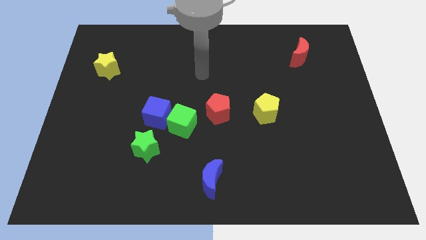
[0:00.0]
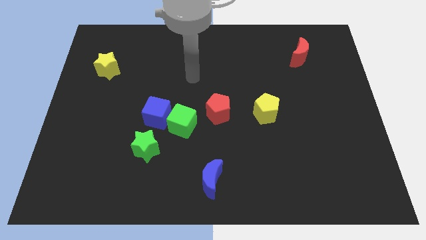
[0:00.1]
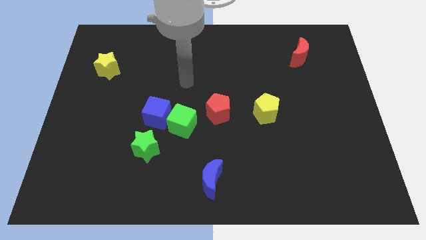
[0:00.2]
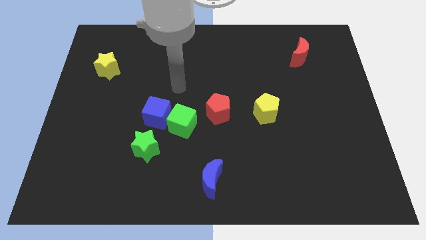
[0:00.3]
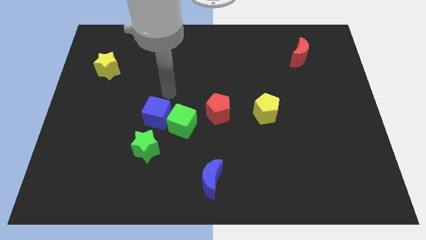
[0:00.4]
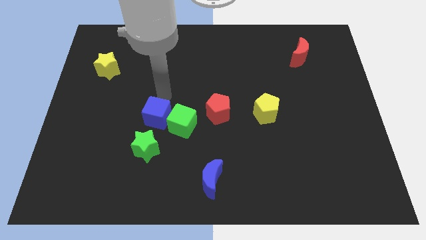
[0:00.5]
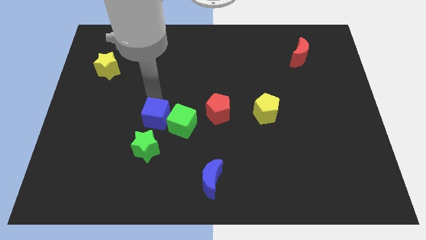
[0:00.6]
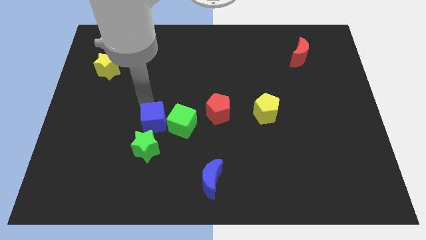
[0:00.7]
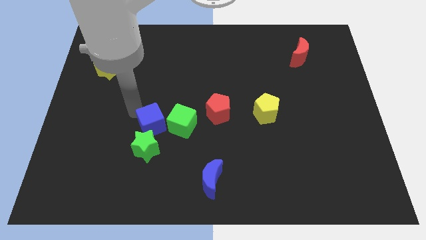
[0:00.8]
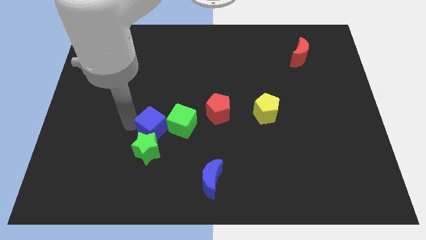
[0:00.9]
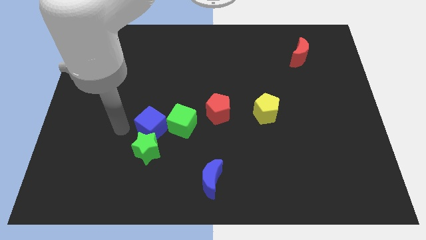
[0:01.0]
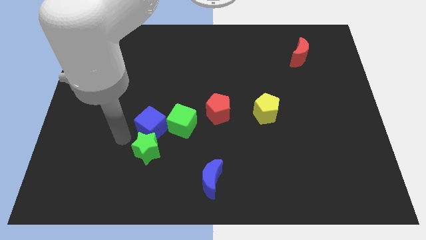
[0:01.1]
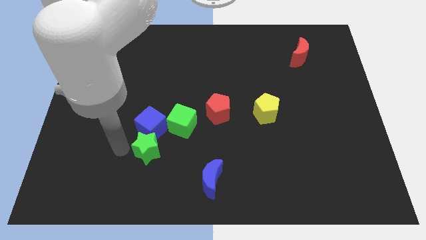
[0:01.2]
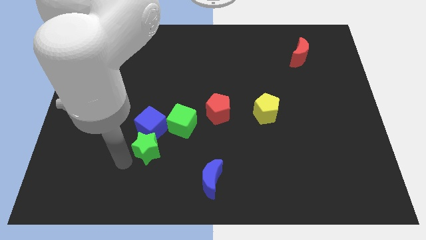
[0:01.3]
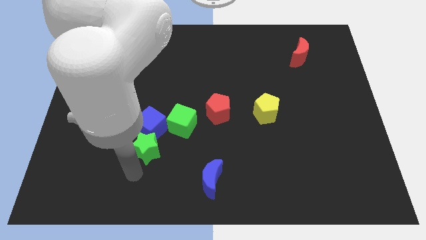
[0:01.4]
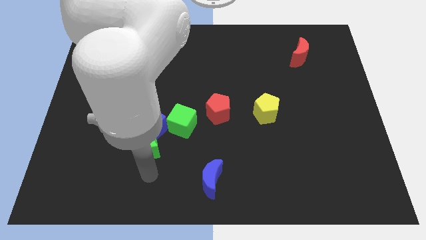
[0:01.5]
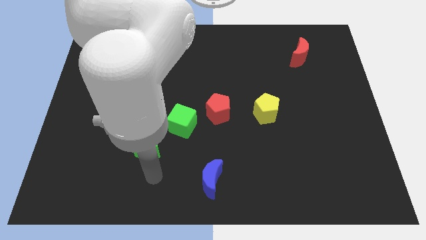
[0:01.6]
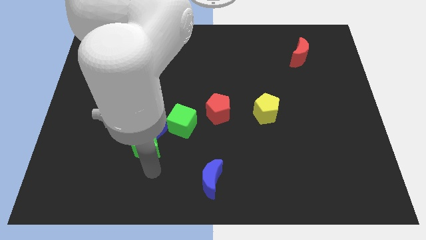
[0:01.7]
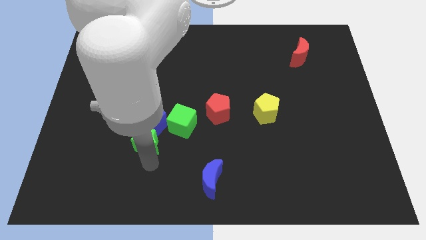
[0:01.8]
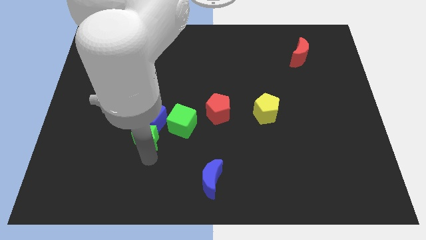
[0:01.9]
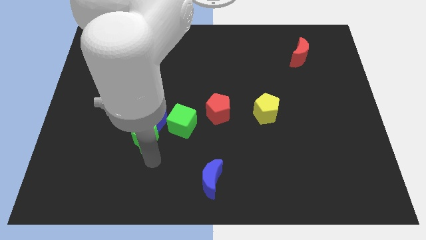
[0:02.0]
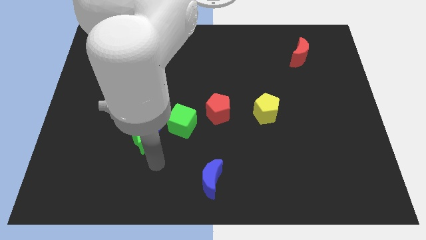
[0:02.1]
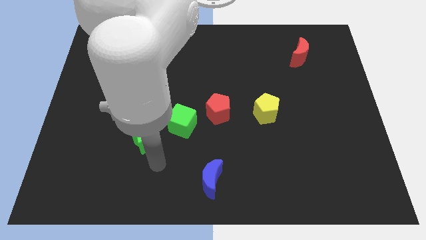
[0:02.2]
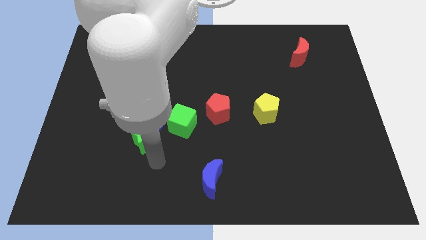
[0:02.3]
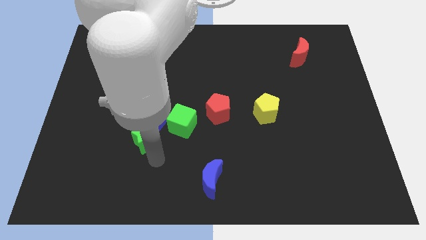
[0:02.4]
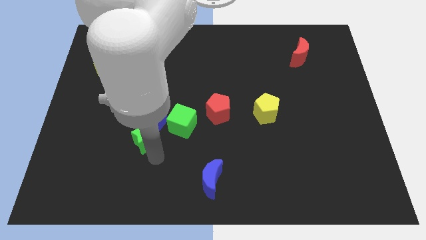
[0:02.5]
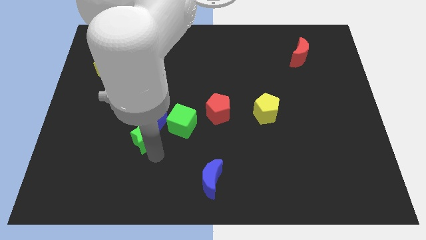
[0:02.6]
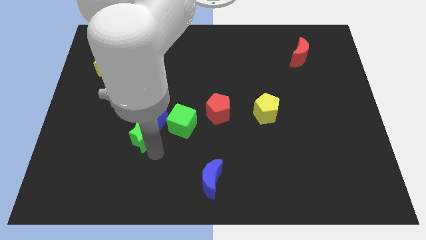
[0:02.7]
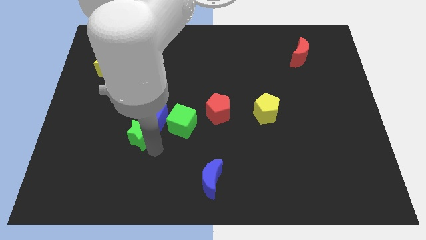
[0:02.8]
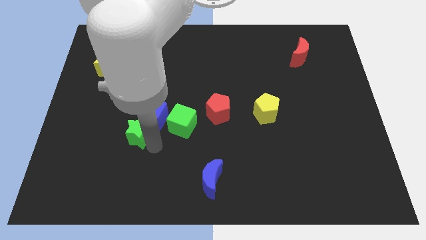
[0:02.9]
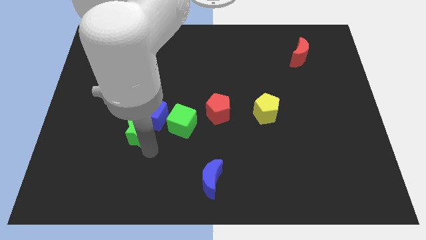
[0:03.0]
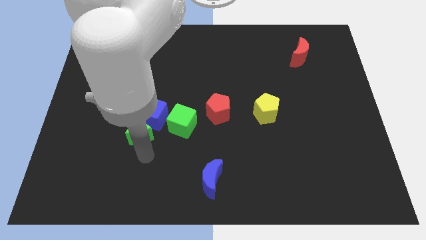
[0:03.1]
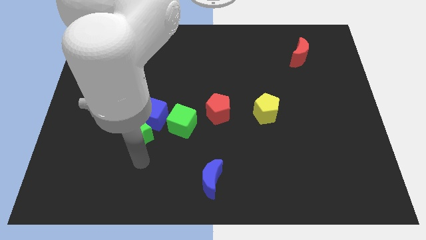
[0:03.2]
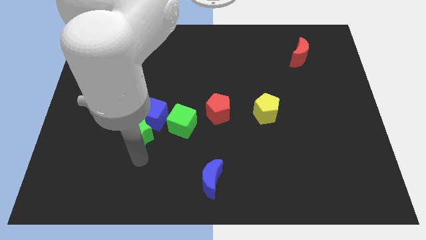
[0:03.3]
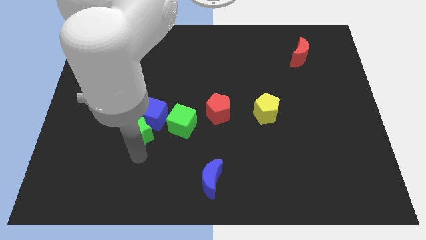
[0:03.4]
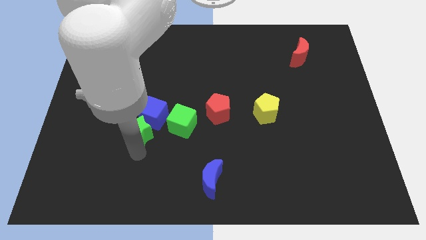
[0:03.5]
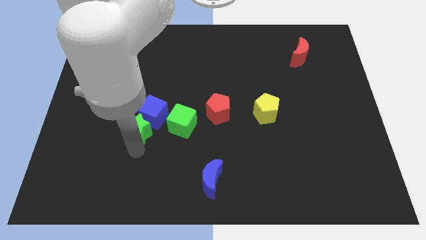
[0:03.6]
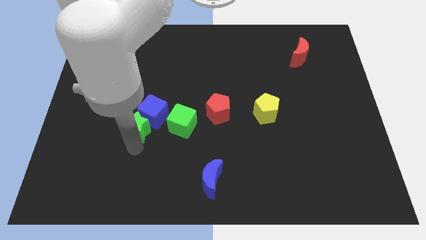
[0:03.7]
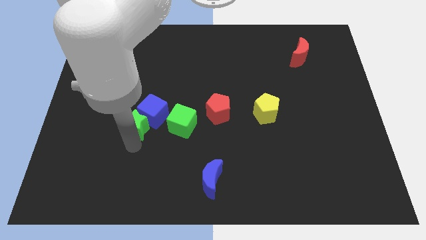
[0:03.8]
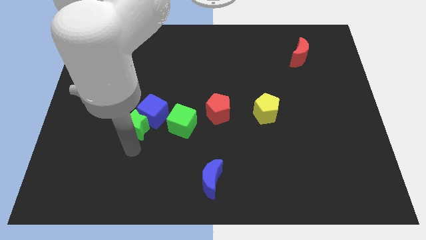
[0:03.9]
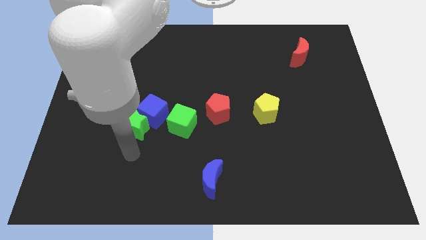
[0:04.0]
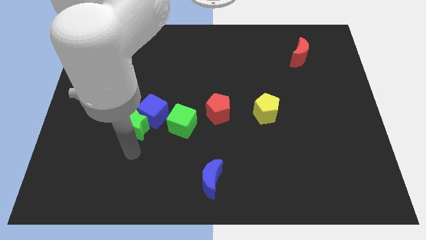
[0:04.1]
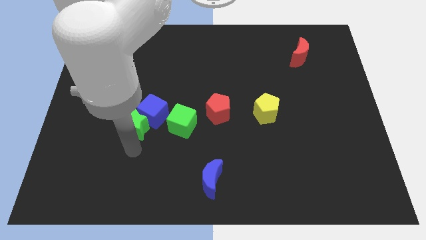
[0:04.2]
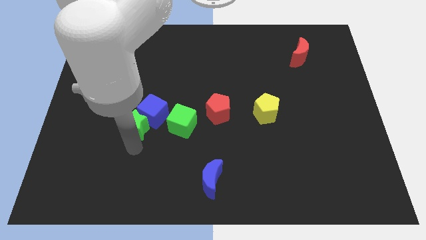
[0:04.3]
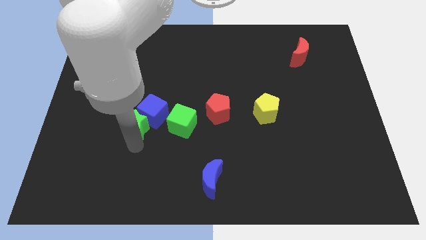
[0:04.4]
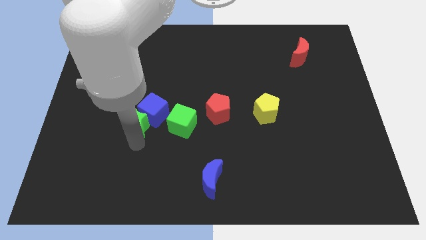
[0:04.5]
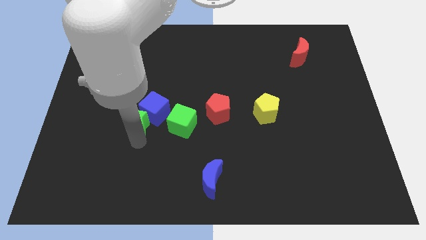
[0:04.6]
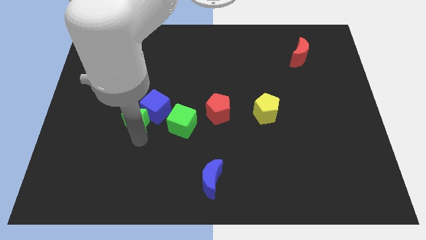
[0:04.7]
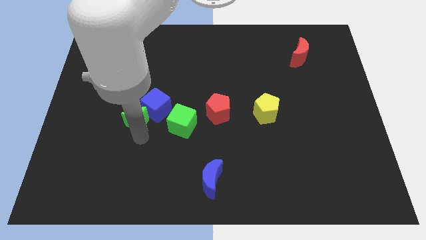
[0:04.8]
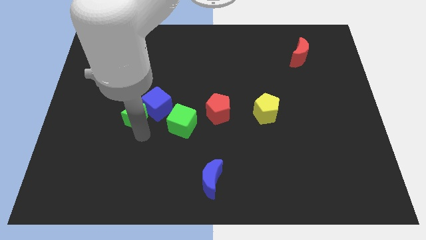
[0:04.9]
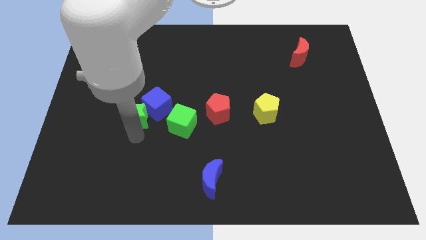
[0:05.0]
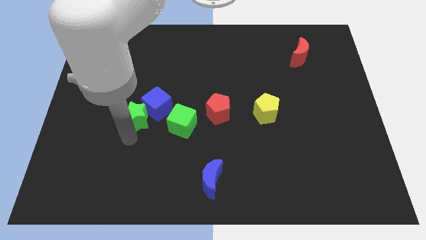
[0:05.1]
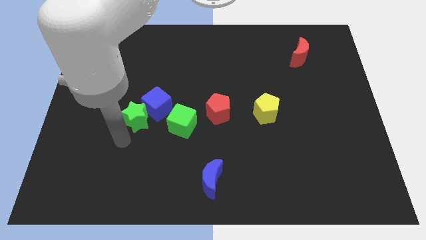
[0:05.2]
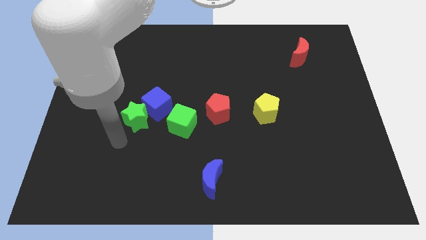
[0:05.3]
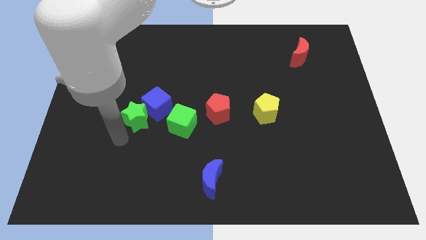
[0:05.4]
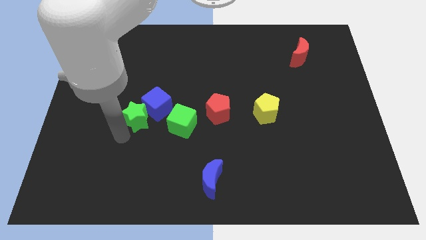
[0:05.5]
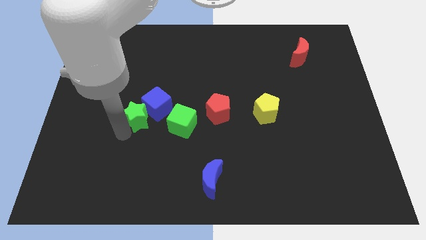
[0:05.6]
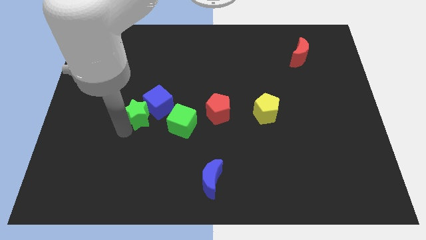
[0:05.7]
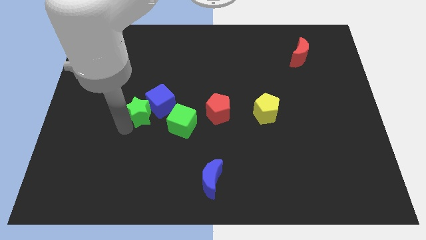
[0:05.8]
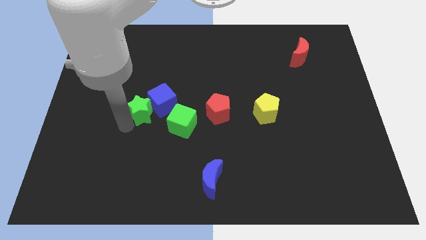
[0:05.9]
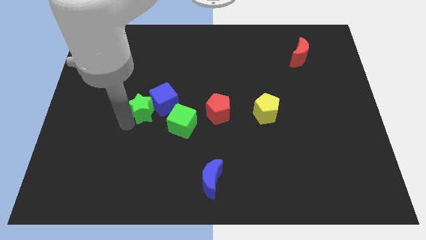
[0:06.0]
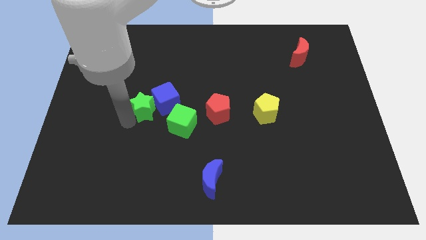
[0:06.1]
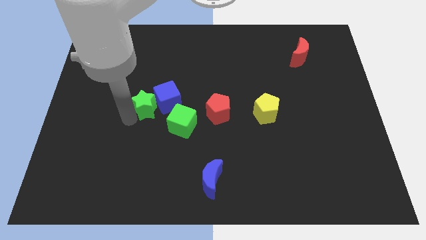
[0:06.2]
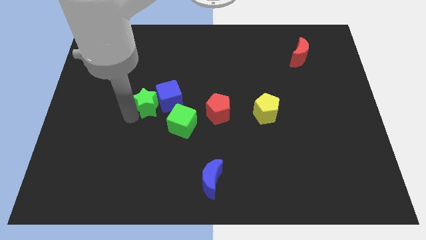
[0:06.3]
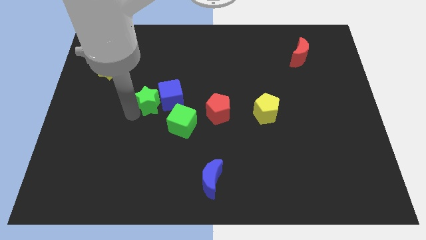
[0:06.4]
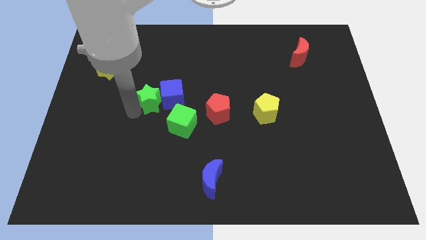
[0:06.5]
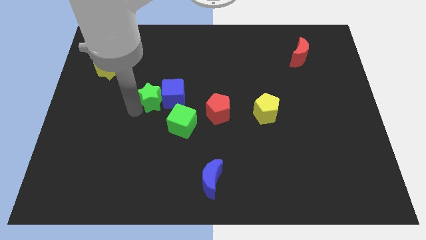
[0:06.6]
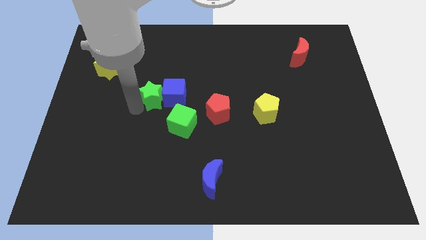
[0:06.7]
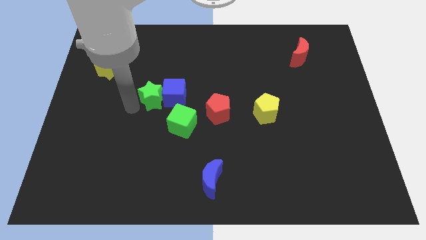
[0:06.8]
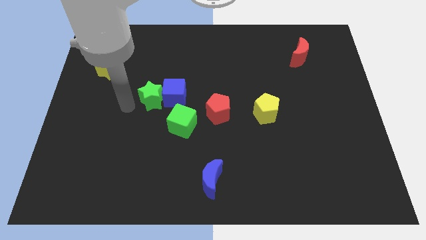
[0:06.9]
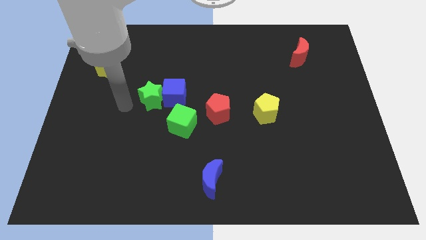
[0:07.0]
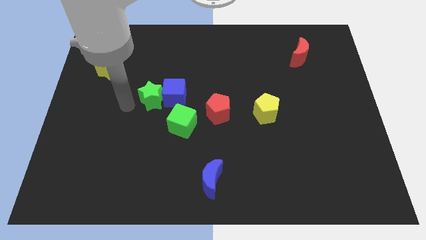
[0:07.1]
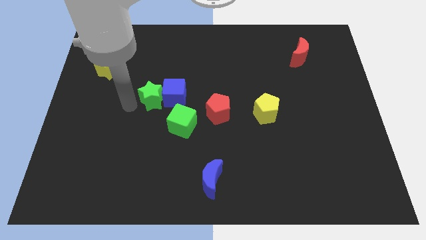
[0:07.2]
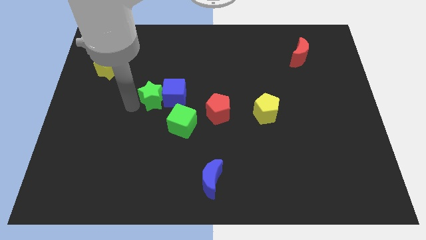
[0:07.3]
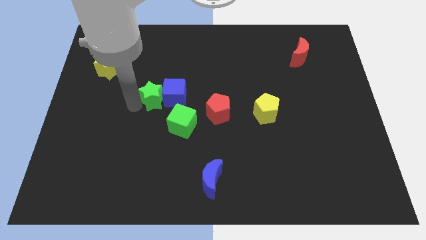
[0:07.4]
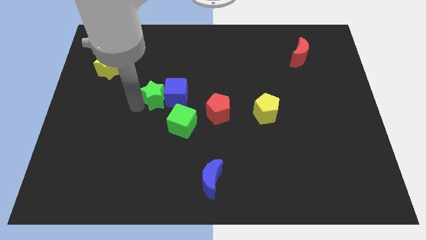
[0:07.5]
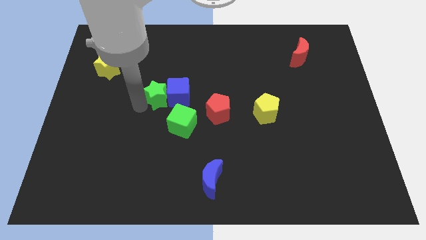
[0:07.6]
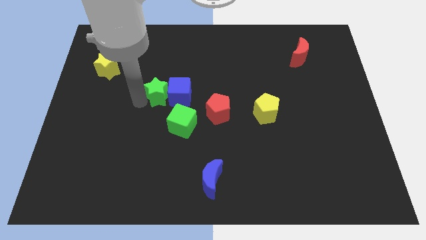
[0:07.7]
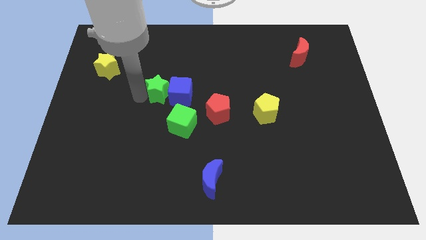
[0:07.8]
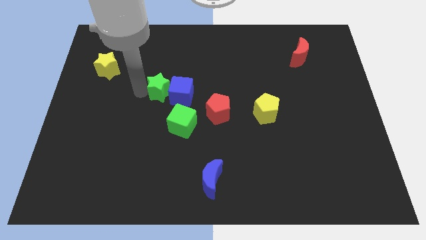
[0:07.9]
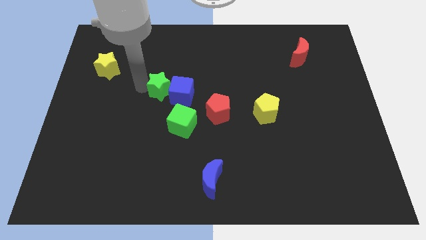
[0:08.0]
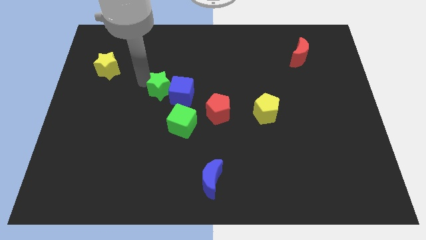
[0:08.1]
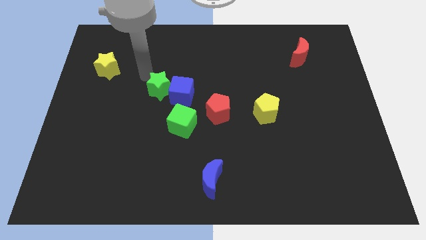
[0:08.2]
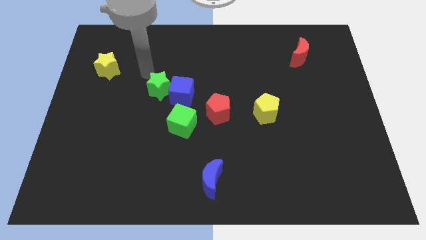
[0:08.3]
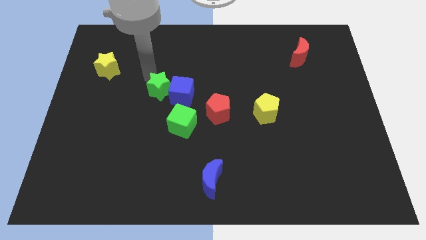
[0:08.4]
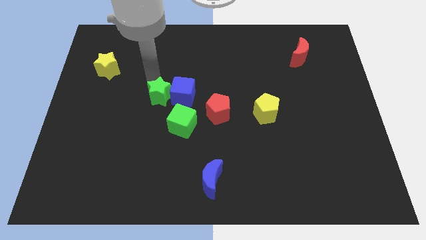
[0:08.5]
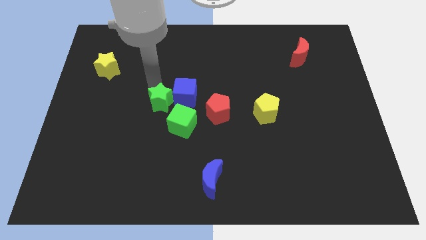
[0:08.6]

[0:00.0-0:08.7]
move the green star just left of the red pentagon
